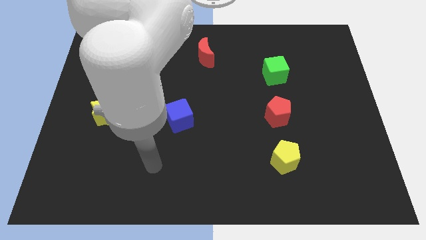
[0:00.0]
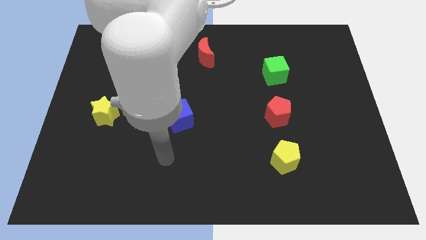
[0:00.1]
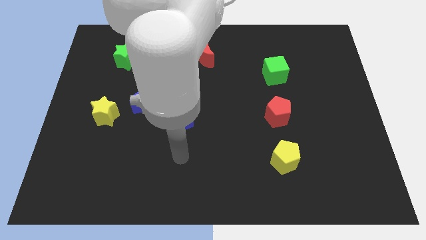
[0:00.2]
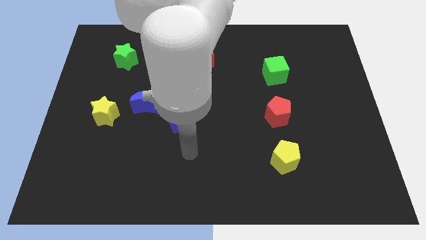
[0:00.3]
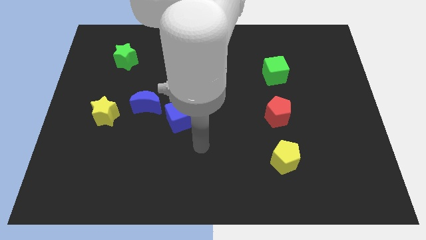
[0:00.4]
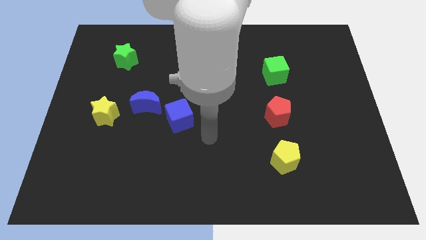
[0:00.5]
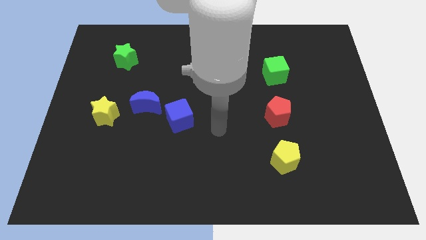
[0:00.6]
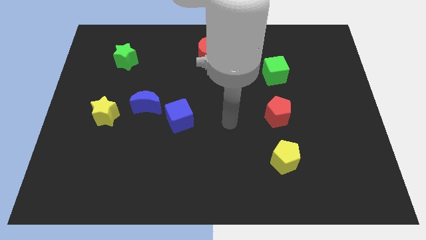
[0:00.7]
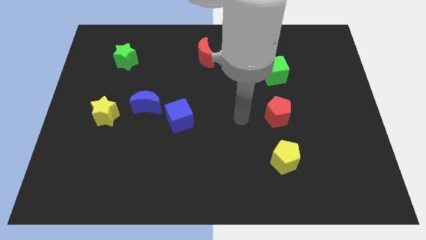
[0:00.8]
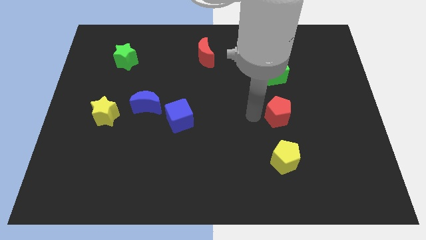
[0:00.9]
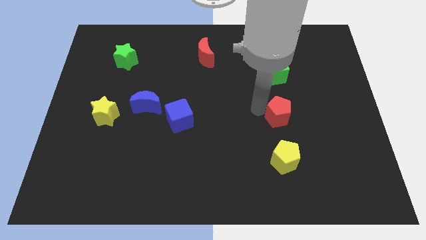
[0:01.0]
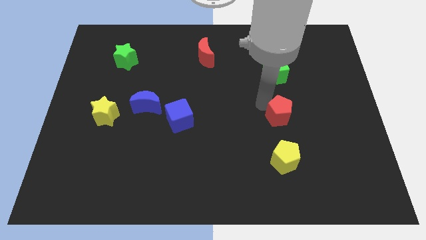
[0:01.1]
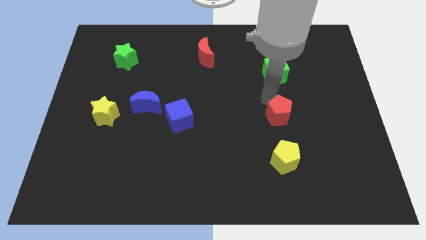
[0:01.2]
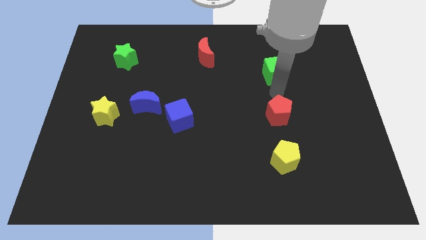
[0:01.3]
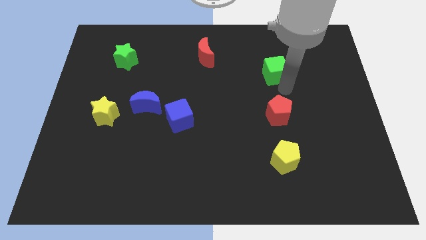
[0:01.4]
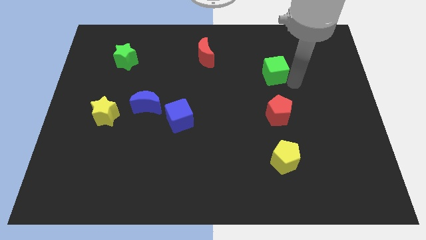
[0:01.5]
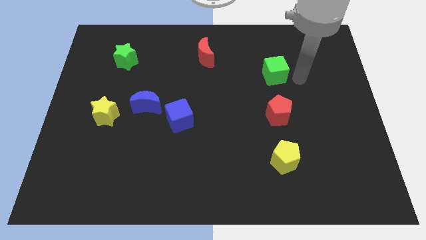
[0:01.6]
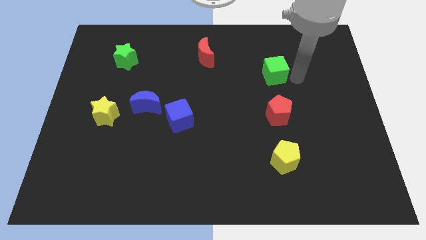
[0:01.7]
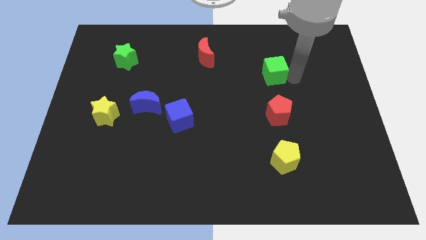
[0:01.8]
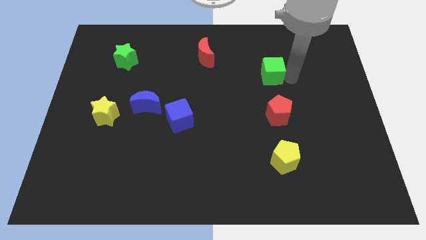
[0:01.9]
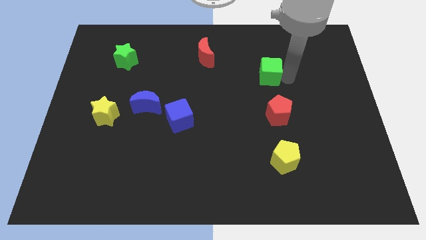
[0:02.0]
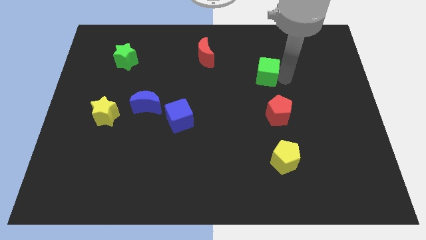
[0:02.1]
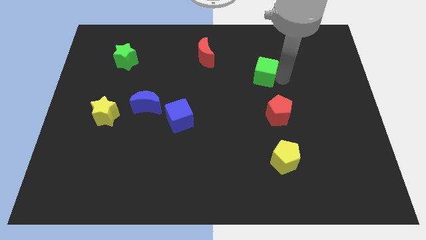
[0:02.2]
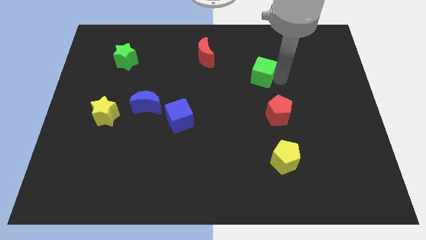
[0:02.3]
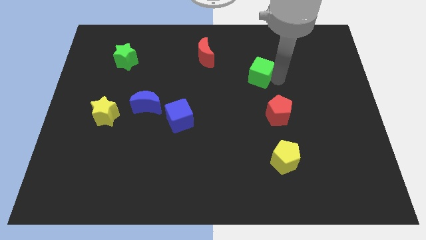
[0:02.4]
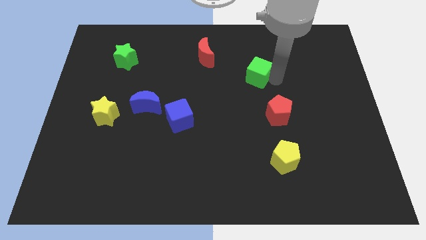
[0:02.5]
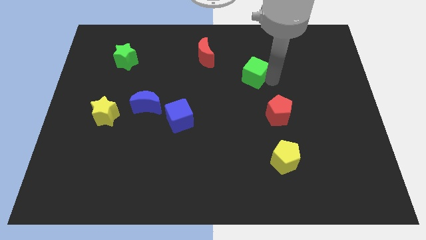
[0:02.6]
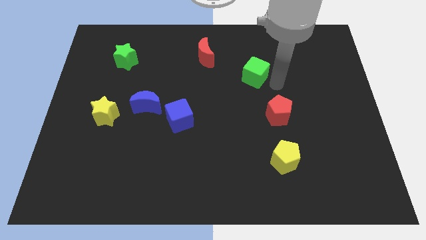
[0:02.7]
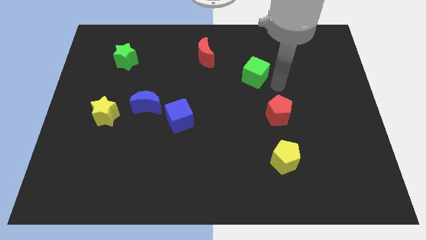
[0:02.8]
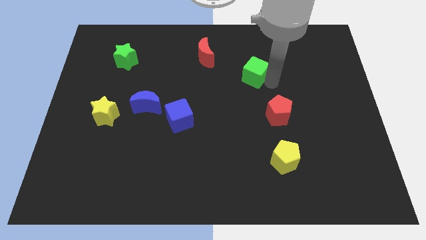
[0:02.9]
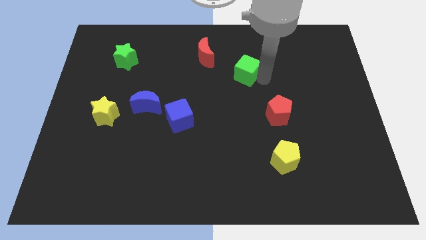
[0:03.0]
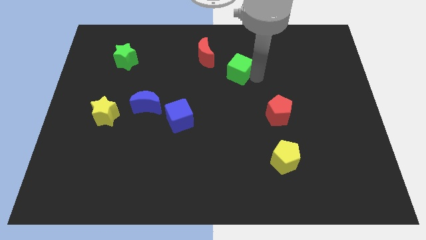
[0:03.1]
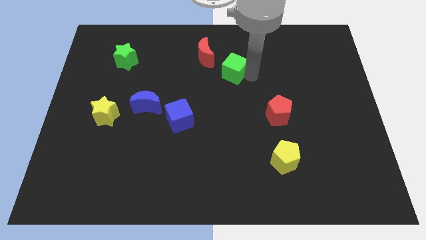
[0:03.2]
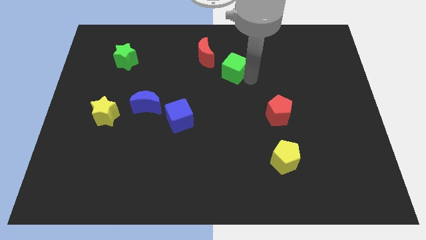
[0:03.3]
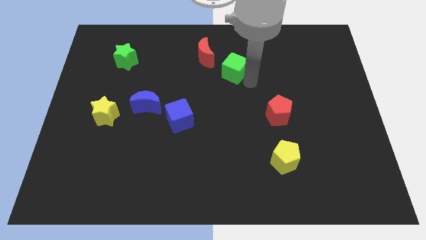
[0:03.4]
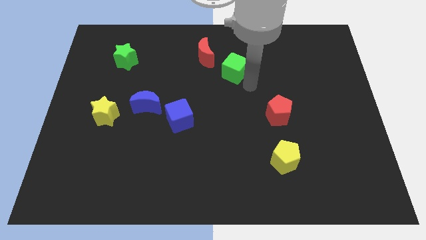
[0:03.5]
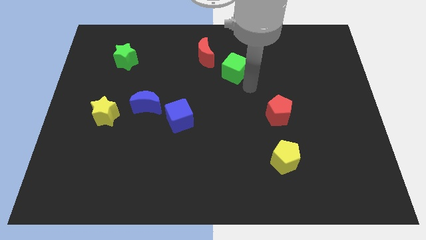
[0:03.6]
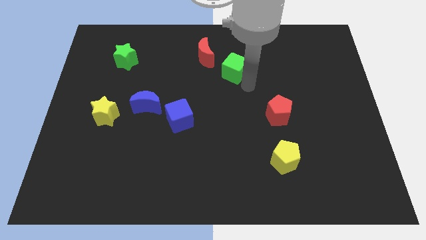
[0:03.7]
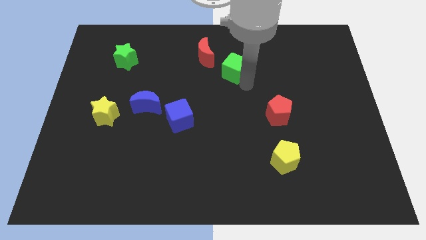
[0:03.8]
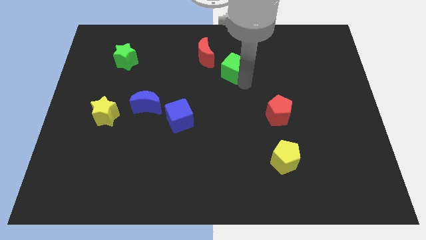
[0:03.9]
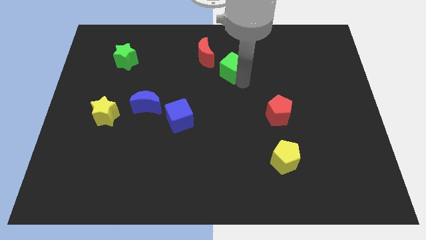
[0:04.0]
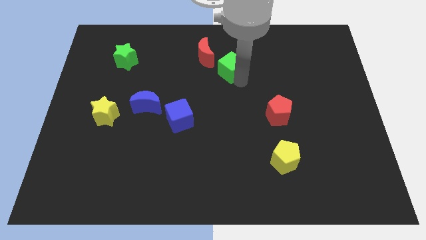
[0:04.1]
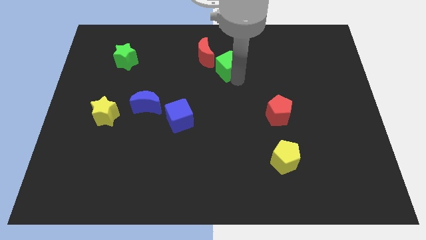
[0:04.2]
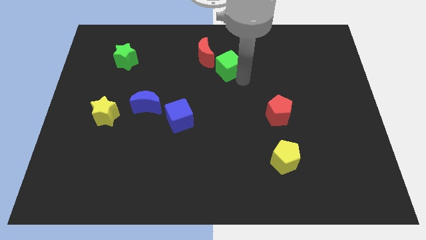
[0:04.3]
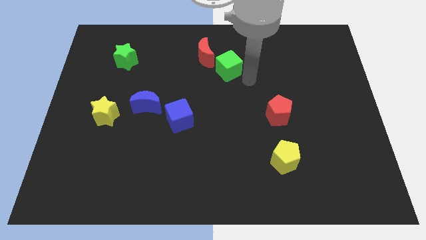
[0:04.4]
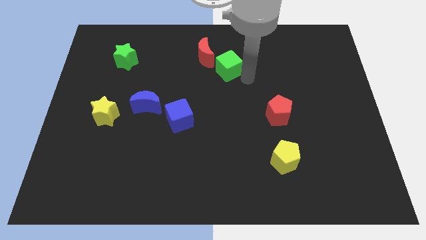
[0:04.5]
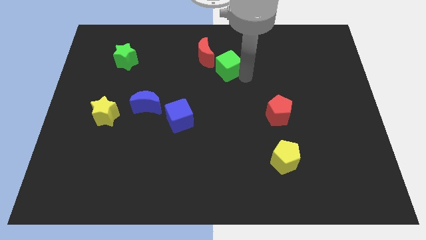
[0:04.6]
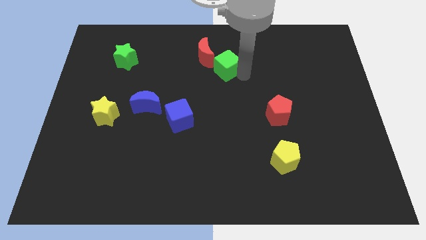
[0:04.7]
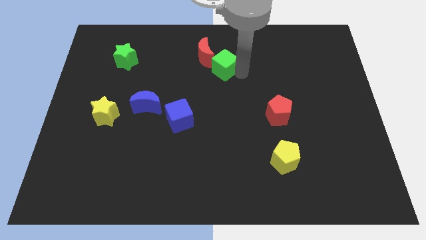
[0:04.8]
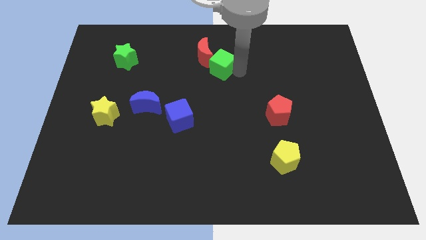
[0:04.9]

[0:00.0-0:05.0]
push the green cube towards the red moon

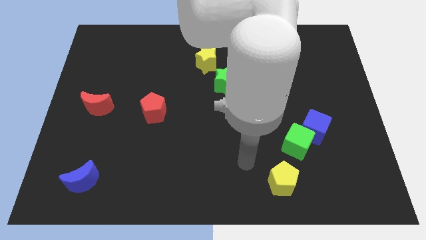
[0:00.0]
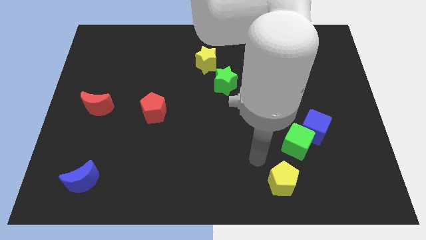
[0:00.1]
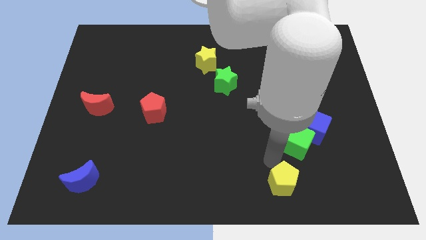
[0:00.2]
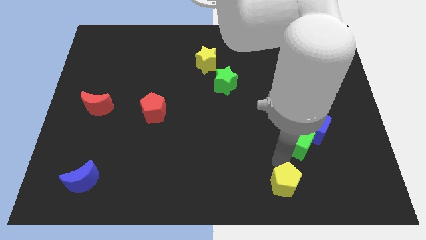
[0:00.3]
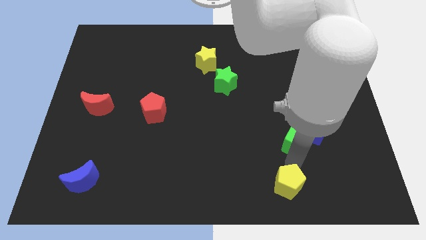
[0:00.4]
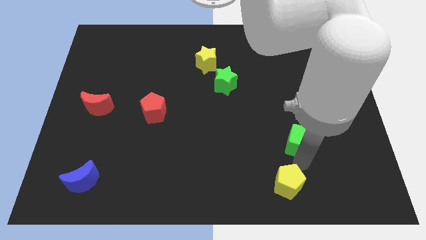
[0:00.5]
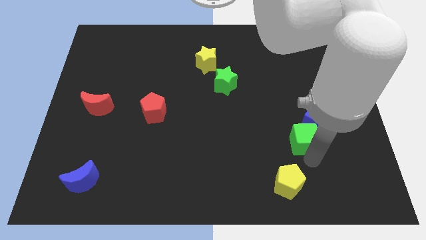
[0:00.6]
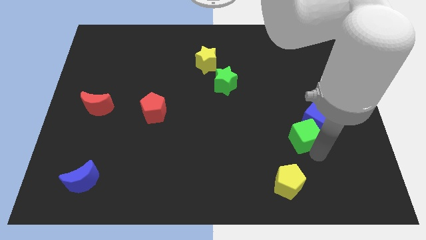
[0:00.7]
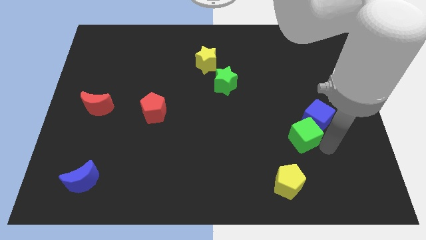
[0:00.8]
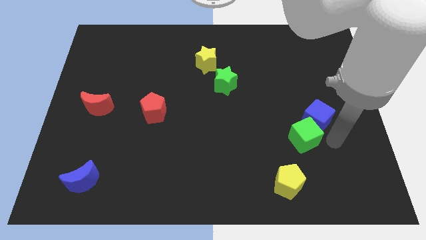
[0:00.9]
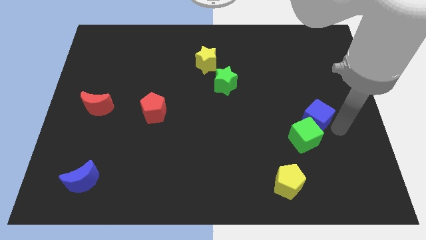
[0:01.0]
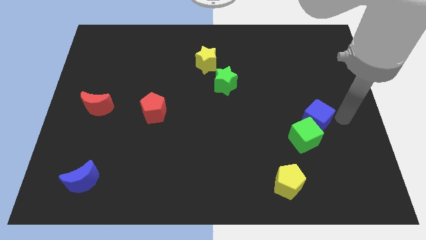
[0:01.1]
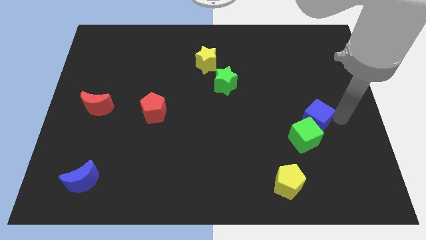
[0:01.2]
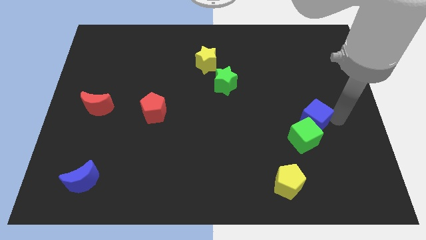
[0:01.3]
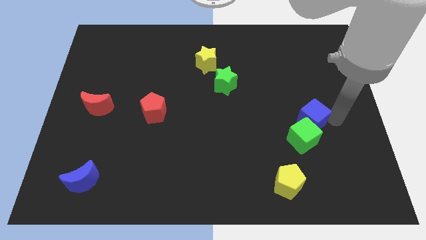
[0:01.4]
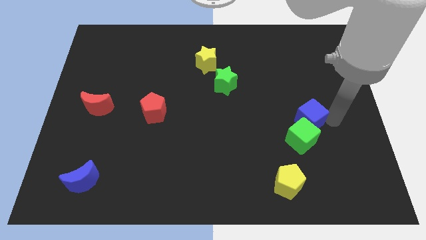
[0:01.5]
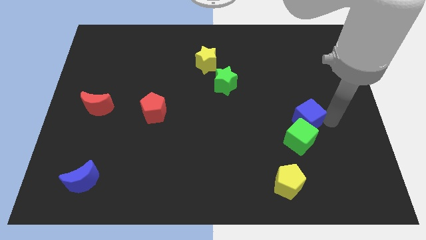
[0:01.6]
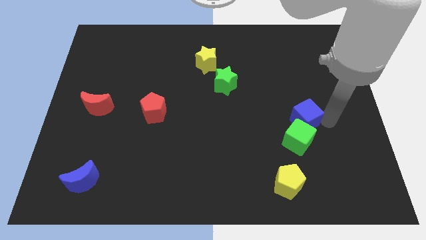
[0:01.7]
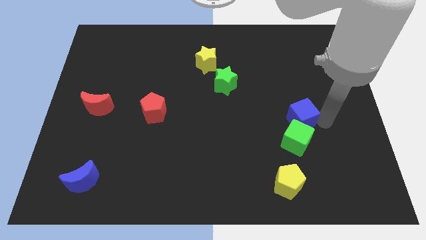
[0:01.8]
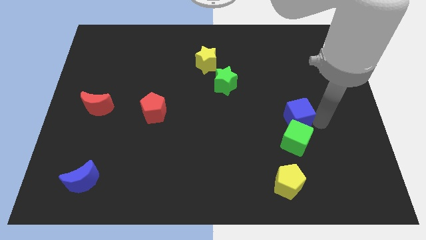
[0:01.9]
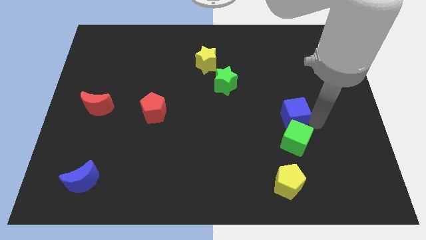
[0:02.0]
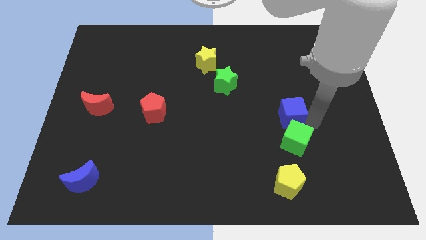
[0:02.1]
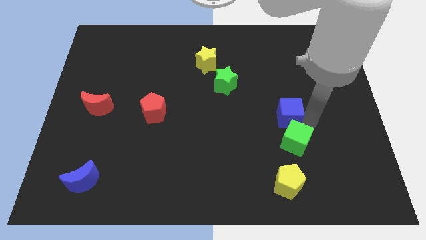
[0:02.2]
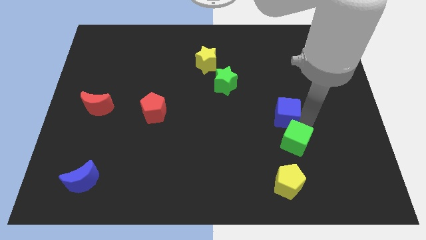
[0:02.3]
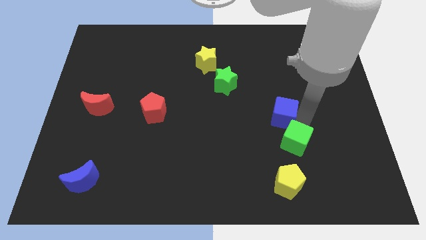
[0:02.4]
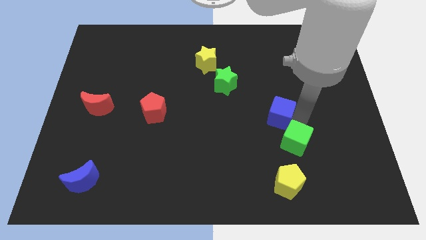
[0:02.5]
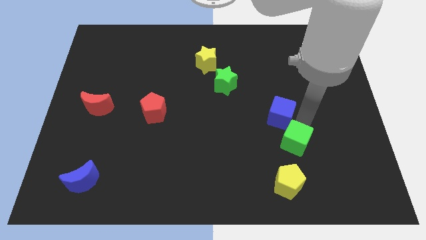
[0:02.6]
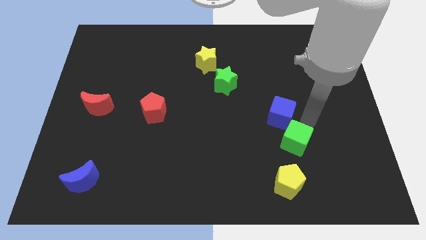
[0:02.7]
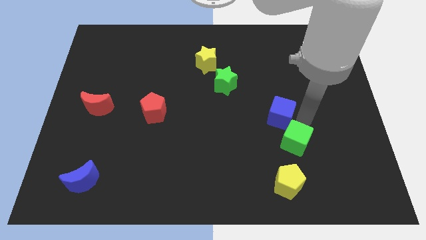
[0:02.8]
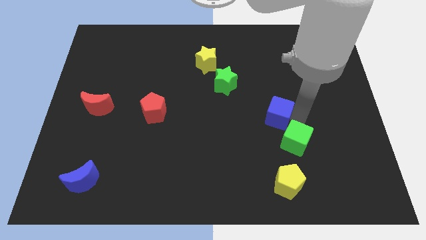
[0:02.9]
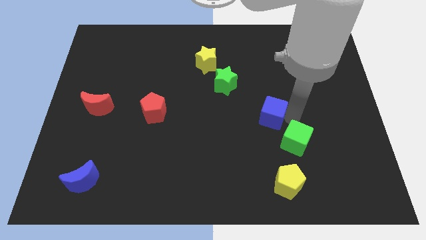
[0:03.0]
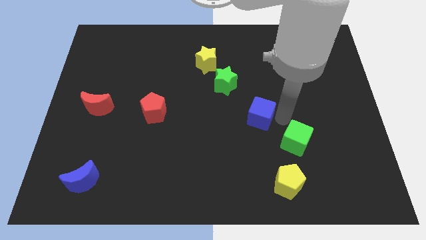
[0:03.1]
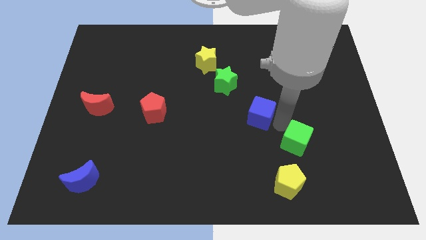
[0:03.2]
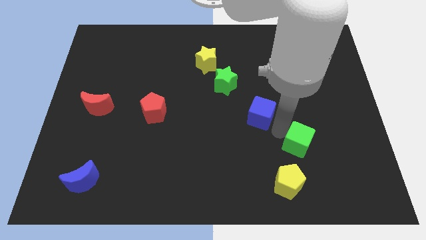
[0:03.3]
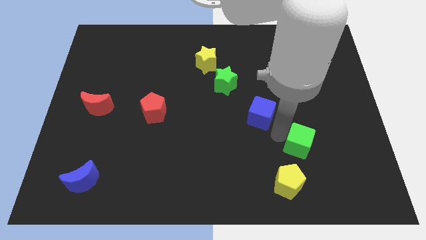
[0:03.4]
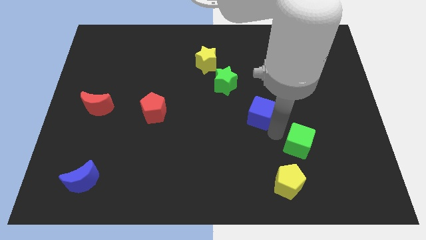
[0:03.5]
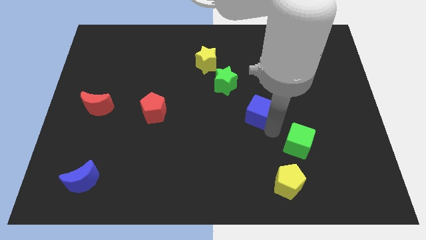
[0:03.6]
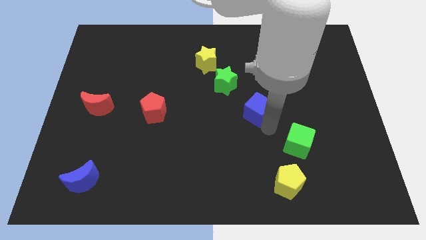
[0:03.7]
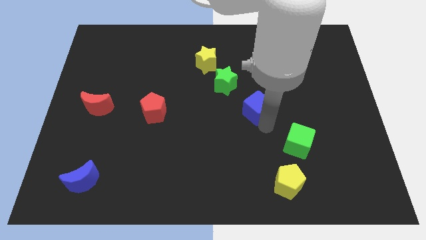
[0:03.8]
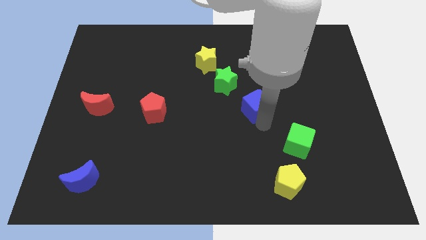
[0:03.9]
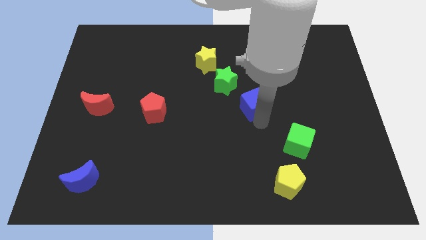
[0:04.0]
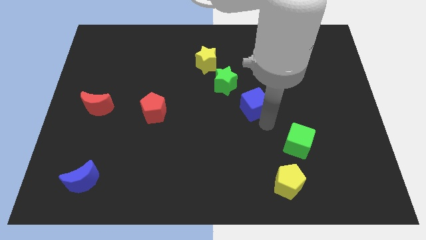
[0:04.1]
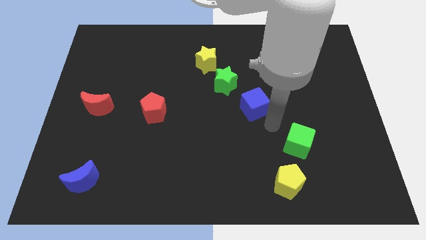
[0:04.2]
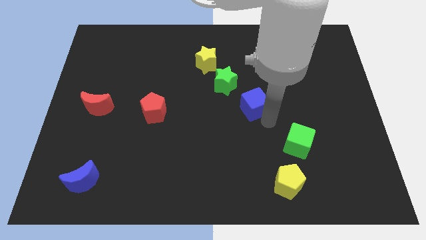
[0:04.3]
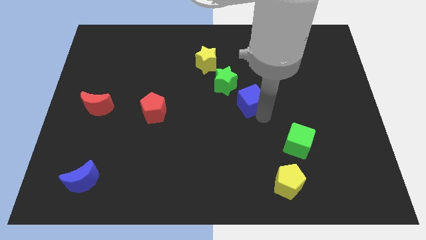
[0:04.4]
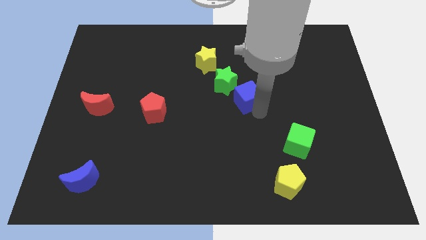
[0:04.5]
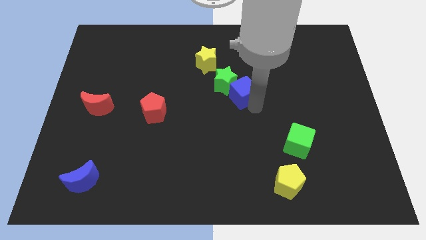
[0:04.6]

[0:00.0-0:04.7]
slide the blue cube next to the green star
